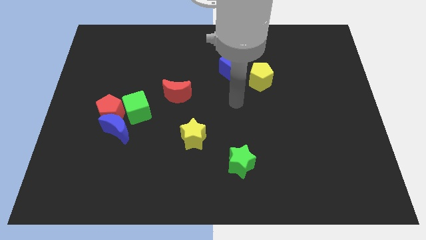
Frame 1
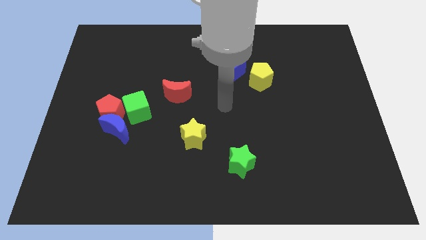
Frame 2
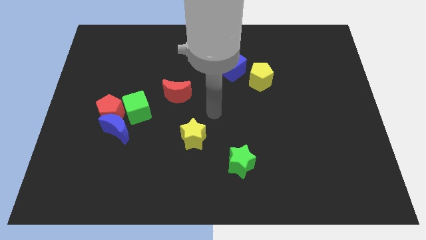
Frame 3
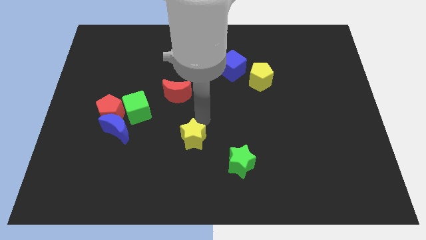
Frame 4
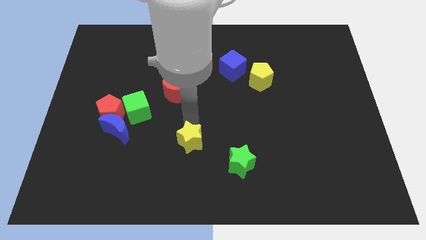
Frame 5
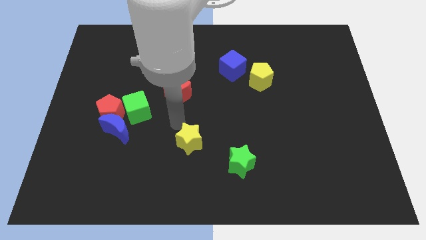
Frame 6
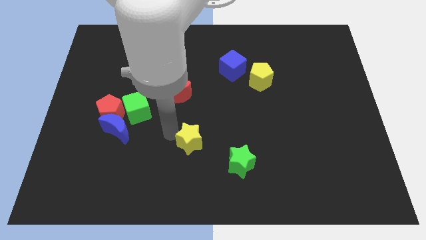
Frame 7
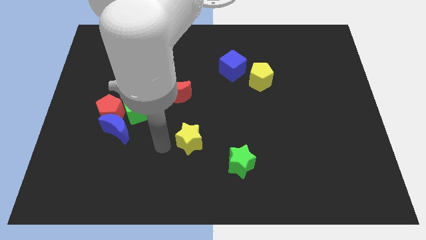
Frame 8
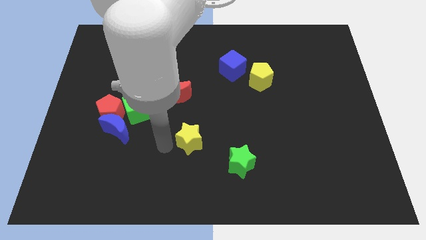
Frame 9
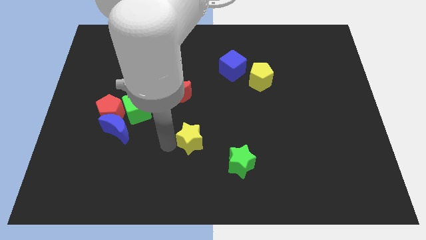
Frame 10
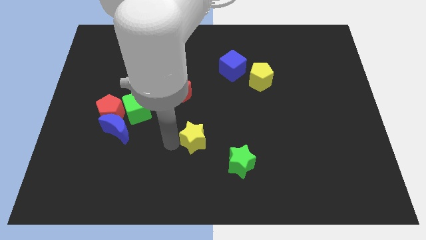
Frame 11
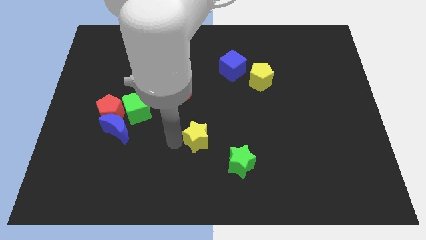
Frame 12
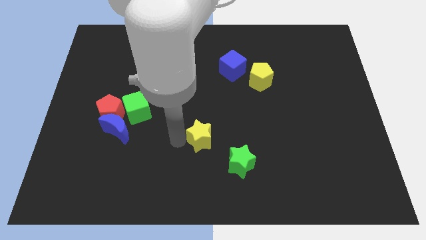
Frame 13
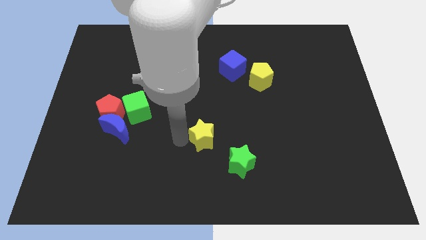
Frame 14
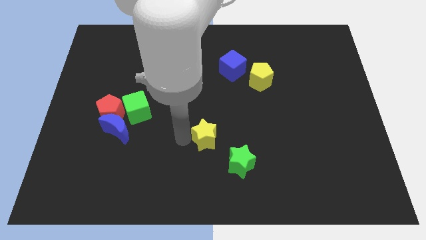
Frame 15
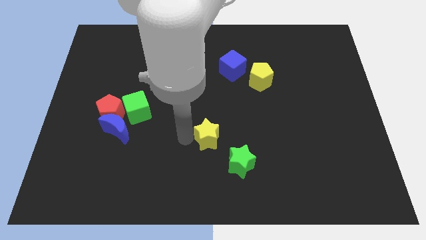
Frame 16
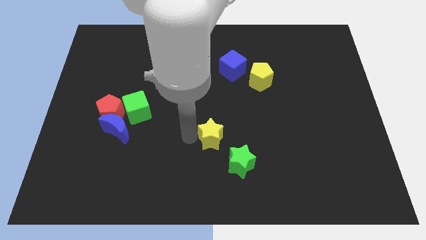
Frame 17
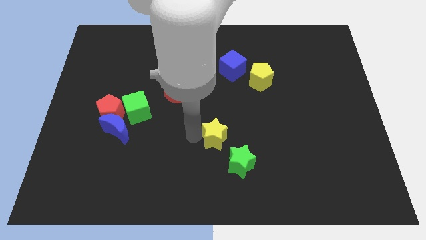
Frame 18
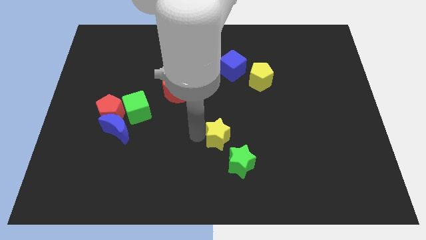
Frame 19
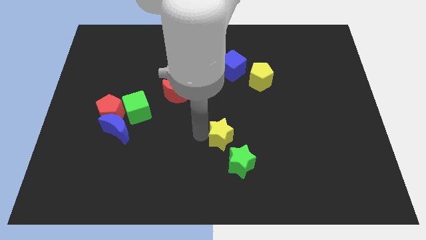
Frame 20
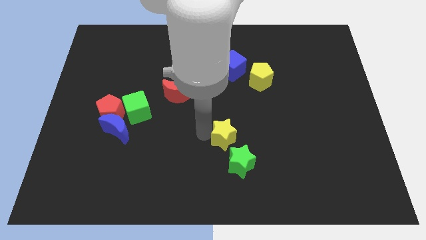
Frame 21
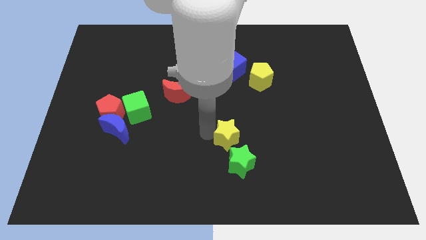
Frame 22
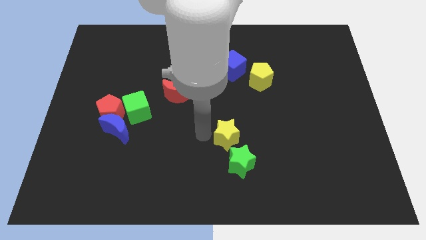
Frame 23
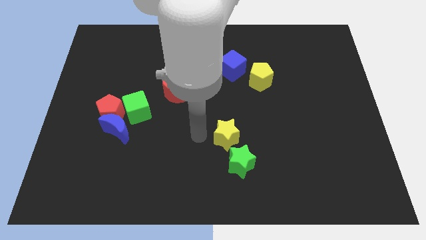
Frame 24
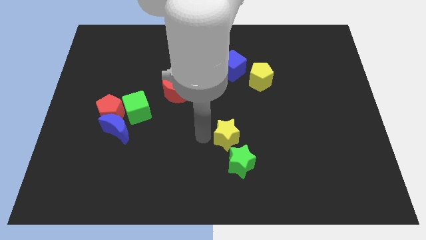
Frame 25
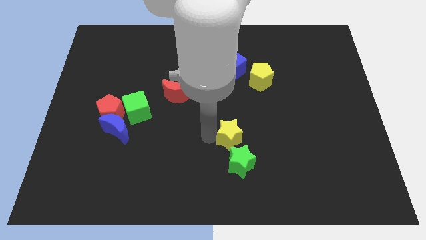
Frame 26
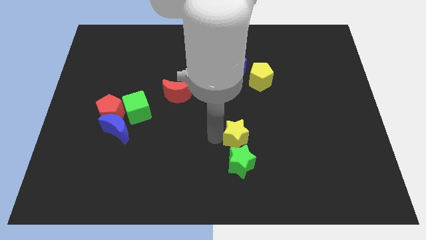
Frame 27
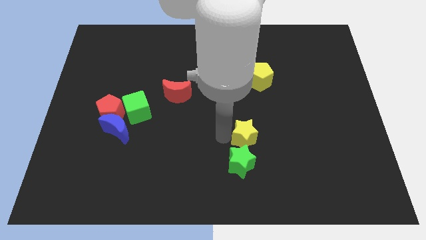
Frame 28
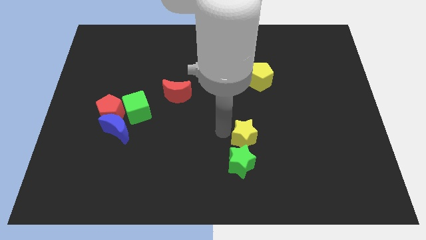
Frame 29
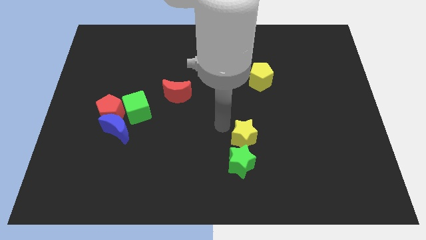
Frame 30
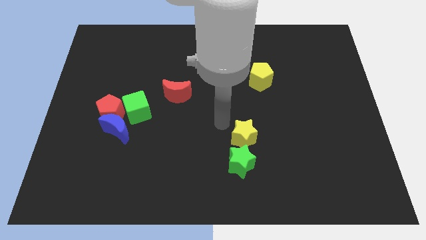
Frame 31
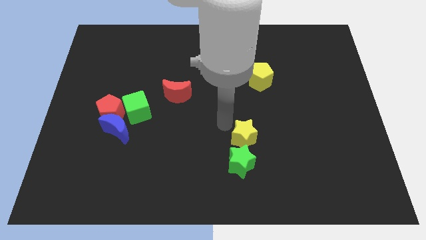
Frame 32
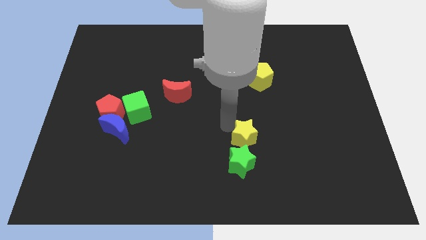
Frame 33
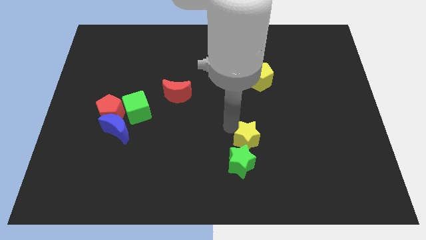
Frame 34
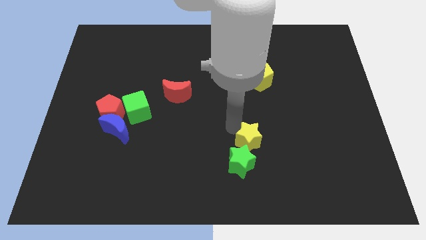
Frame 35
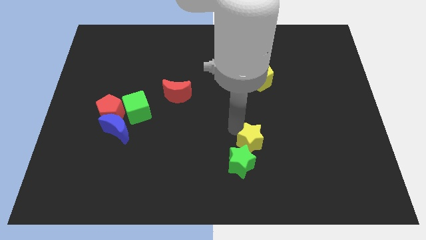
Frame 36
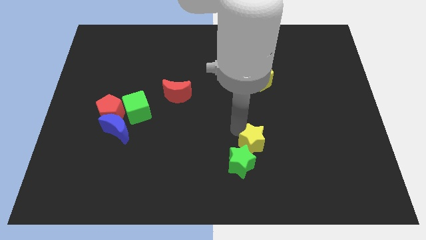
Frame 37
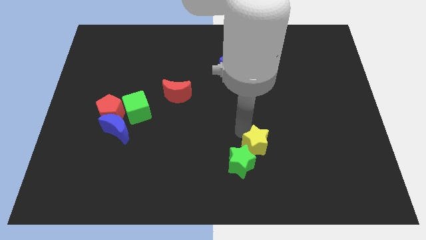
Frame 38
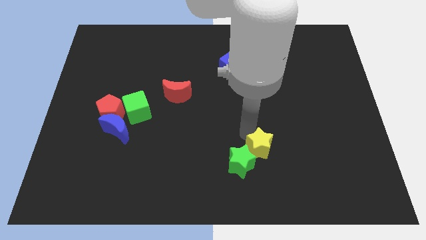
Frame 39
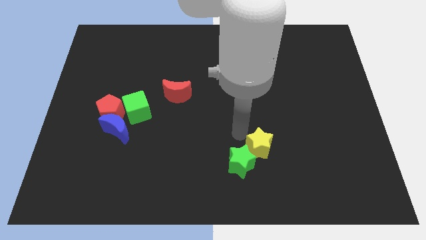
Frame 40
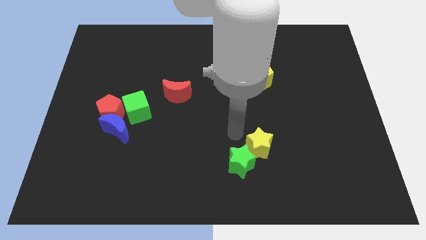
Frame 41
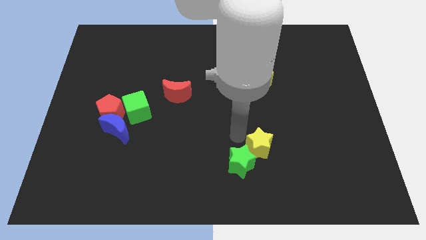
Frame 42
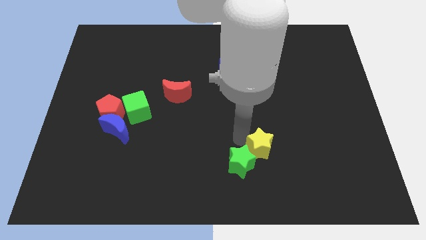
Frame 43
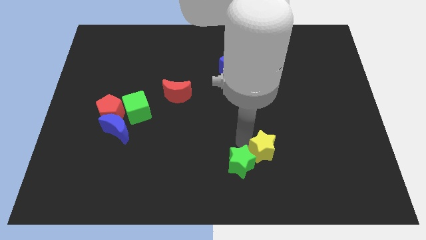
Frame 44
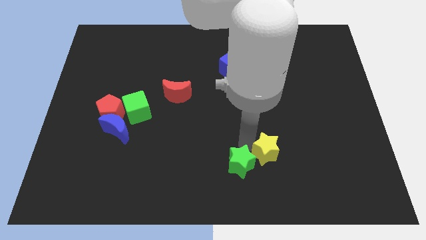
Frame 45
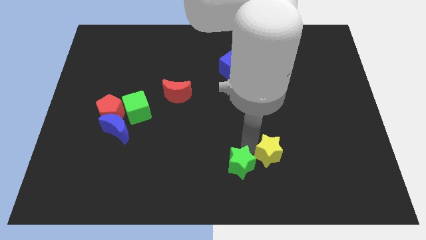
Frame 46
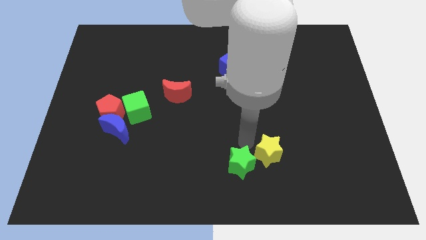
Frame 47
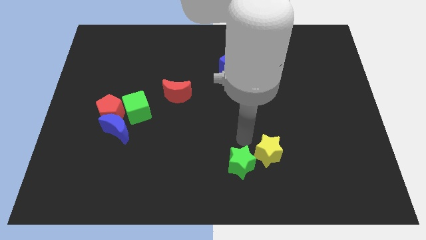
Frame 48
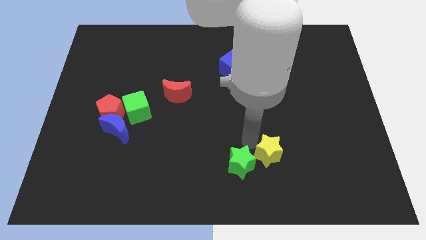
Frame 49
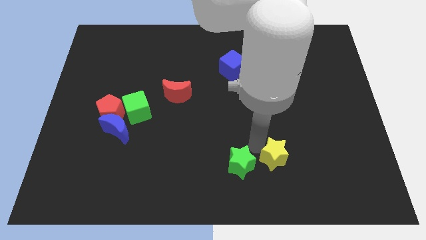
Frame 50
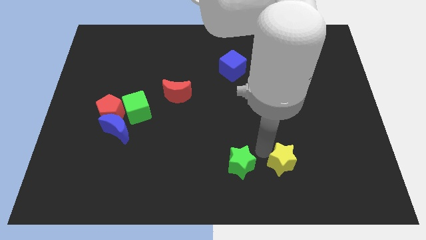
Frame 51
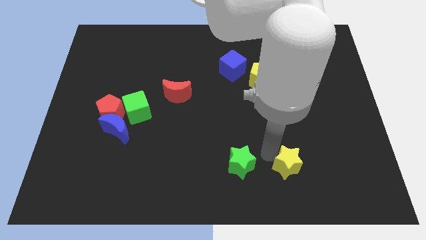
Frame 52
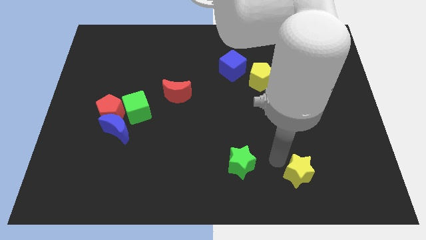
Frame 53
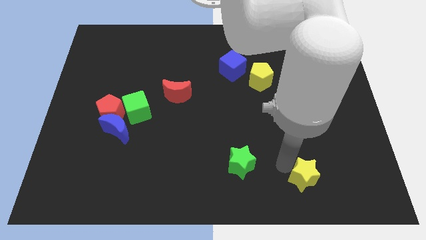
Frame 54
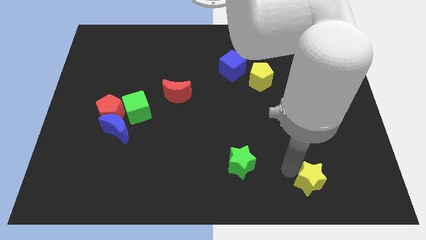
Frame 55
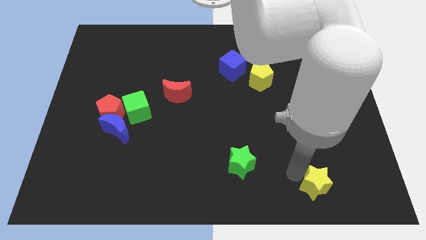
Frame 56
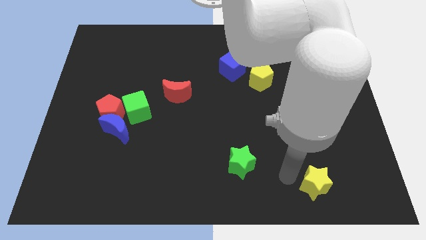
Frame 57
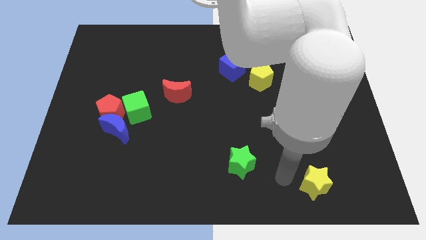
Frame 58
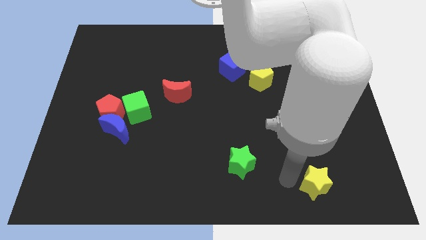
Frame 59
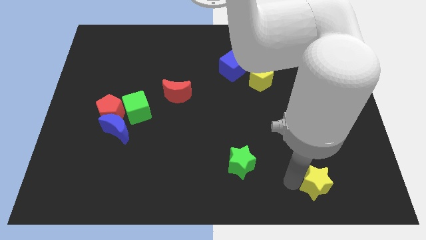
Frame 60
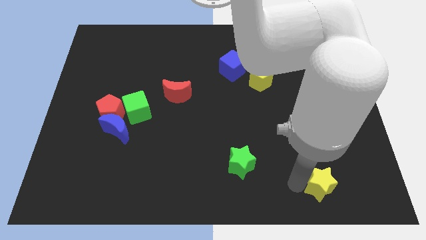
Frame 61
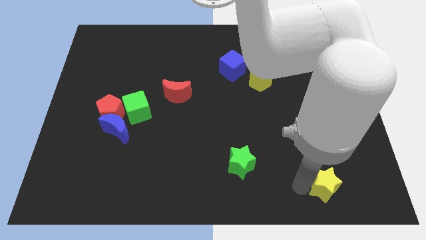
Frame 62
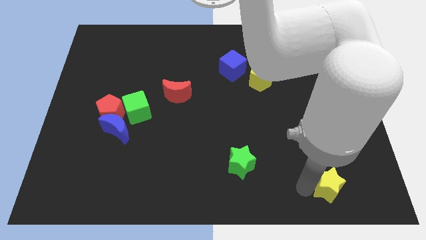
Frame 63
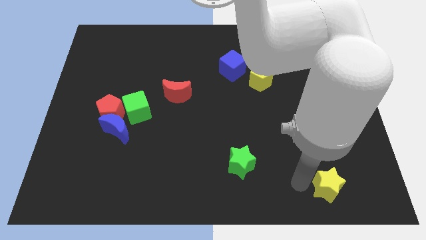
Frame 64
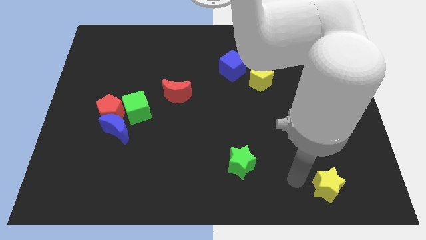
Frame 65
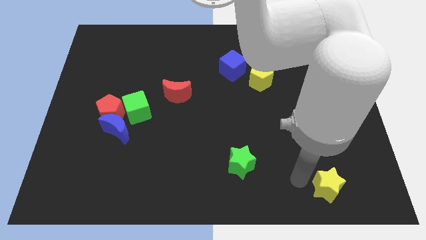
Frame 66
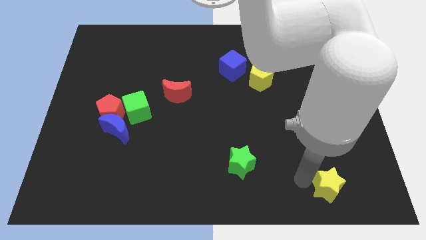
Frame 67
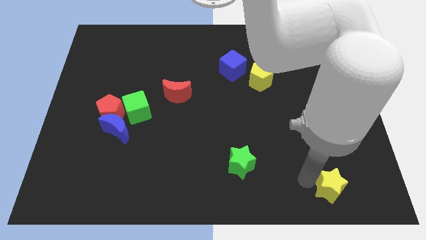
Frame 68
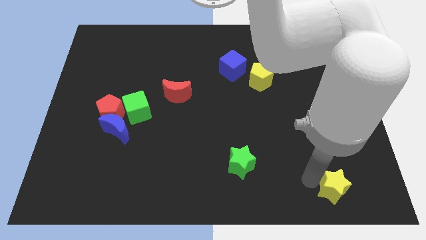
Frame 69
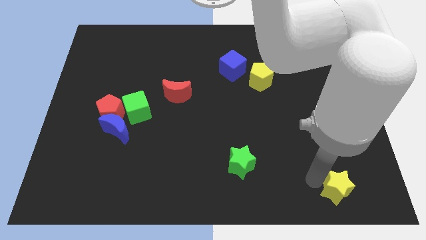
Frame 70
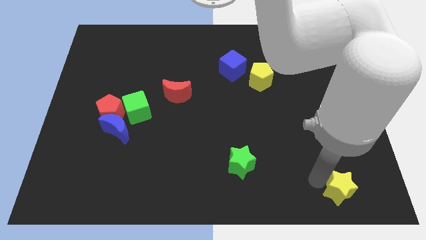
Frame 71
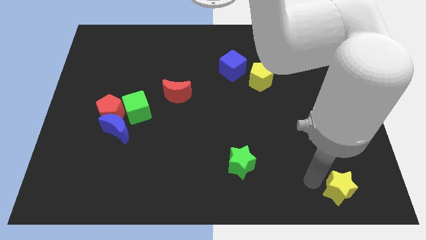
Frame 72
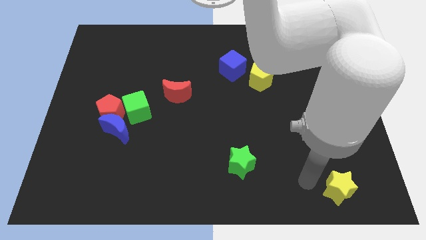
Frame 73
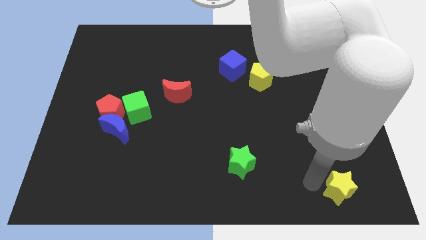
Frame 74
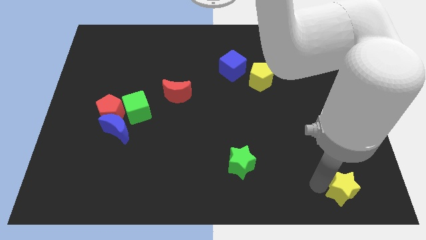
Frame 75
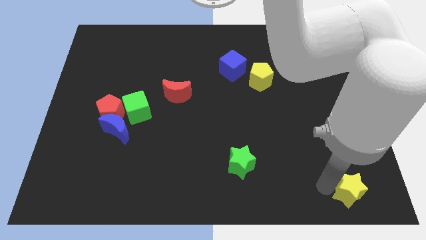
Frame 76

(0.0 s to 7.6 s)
put the yellow star to the bottom right
